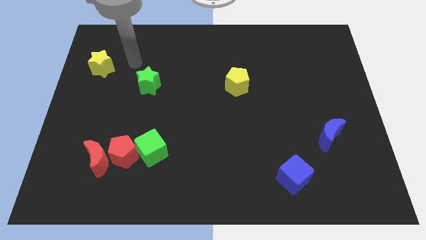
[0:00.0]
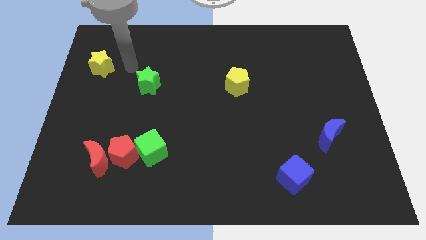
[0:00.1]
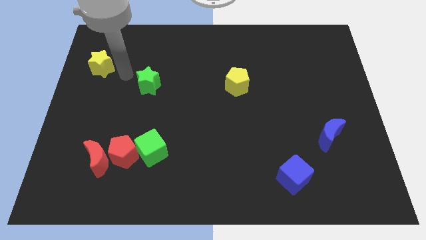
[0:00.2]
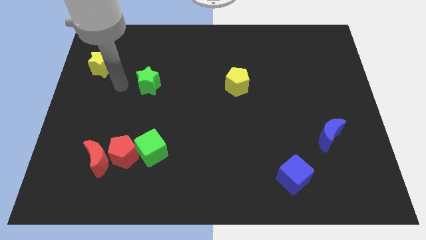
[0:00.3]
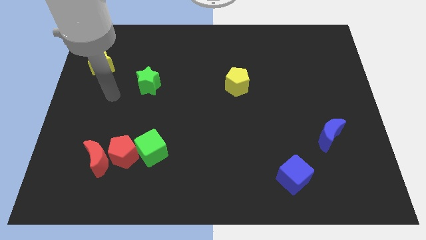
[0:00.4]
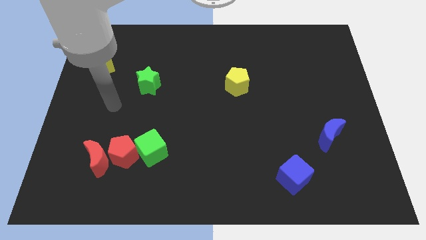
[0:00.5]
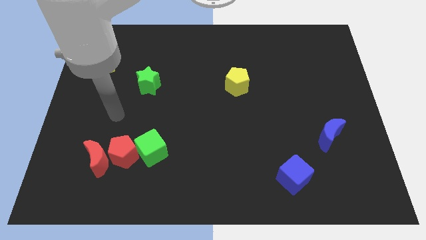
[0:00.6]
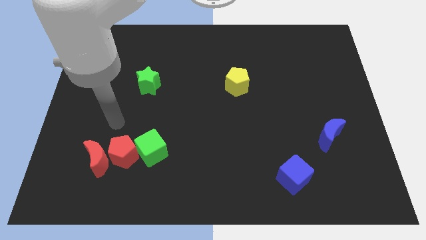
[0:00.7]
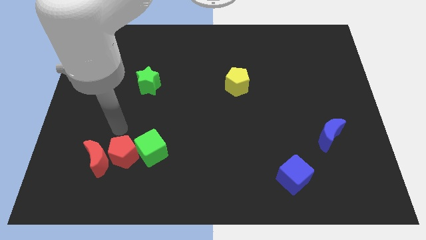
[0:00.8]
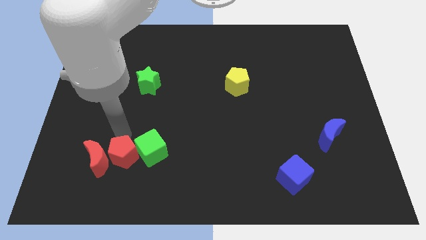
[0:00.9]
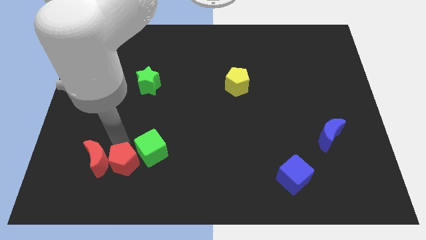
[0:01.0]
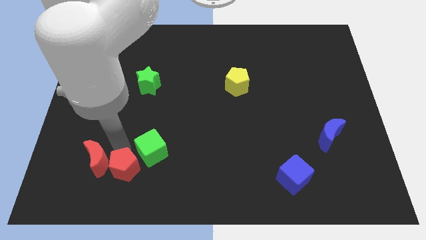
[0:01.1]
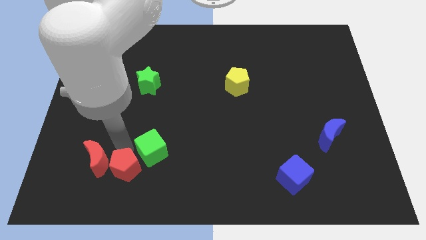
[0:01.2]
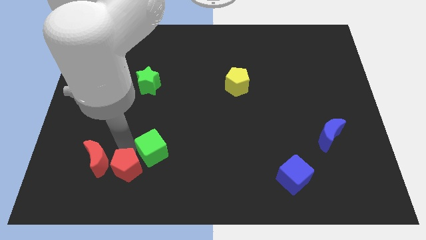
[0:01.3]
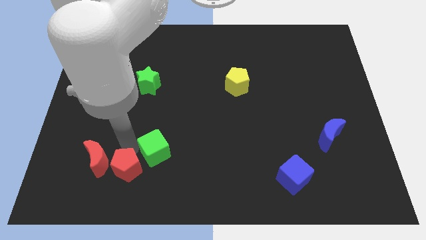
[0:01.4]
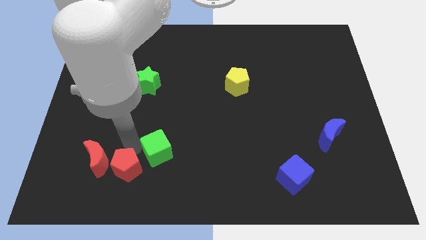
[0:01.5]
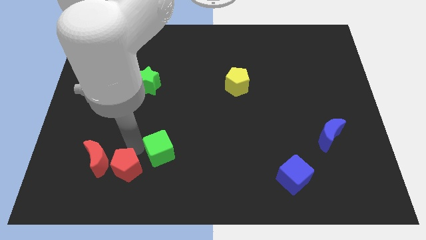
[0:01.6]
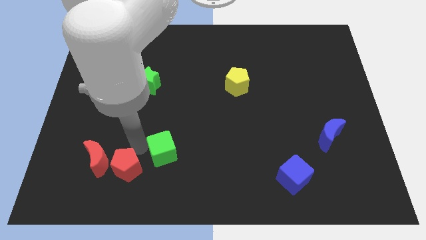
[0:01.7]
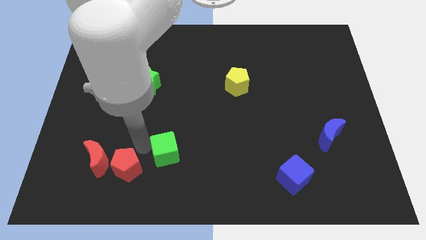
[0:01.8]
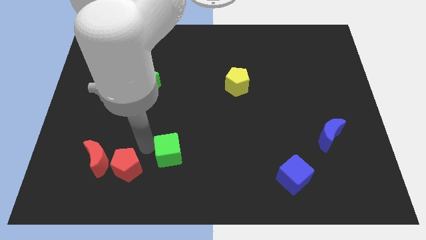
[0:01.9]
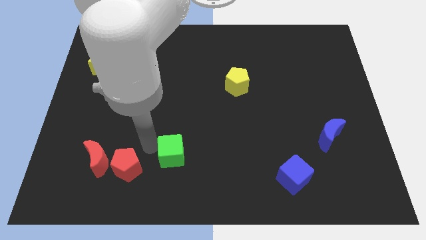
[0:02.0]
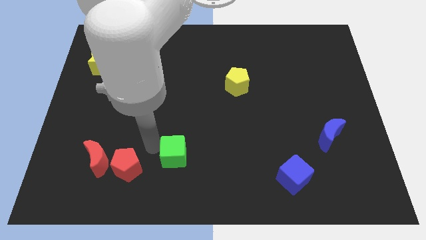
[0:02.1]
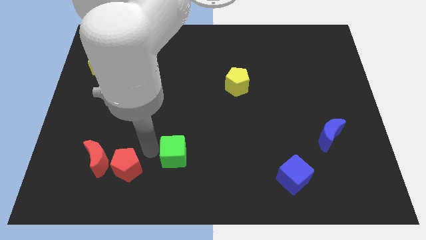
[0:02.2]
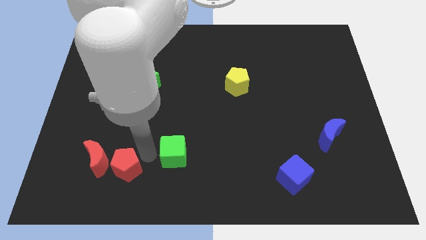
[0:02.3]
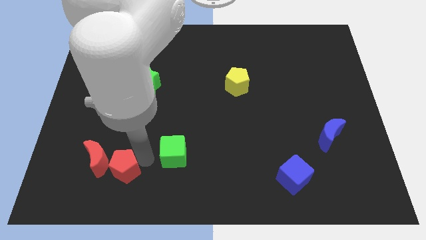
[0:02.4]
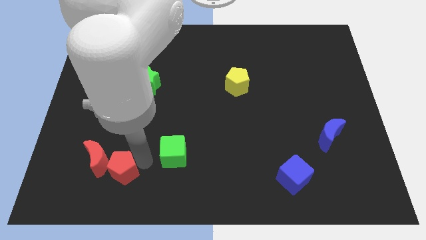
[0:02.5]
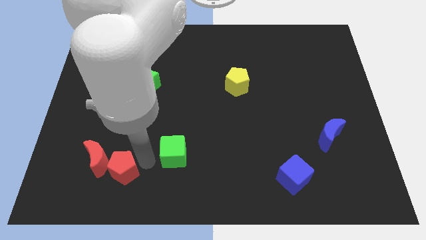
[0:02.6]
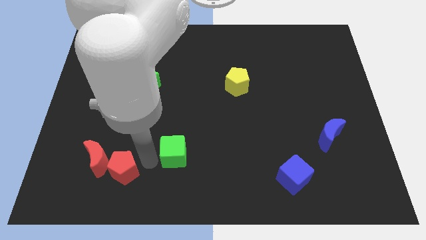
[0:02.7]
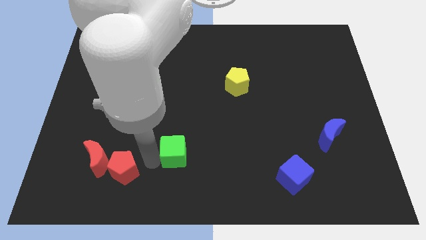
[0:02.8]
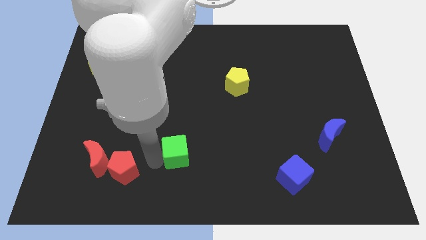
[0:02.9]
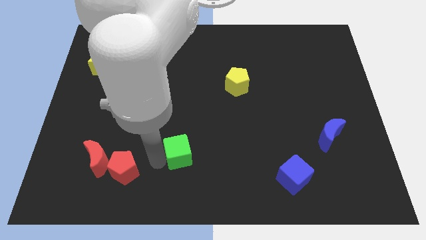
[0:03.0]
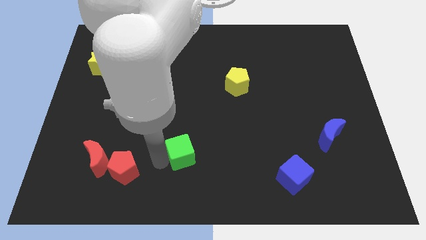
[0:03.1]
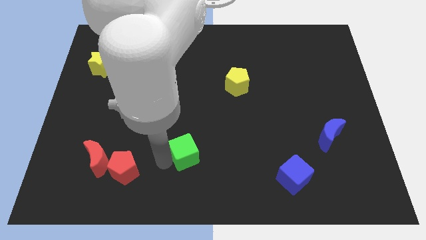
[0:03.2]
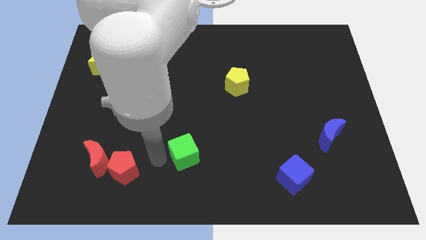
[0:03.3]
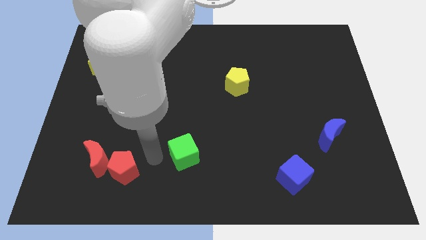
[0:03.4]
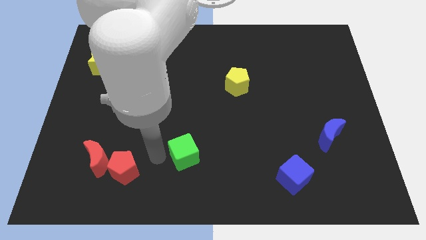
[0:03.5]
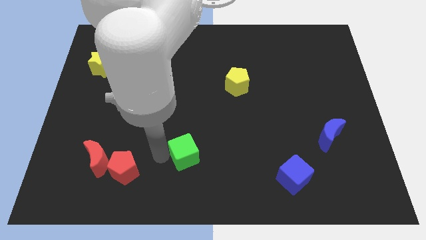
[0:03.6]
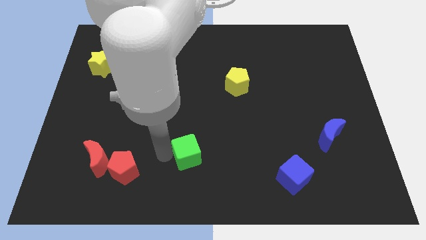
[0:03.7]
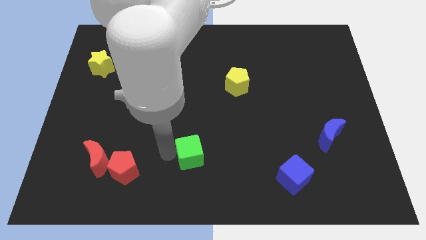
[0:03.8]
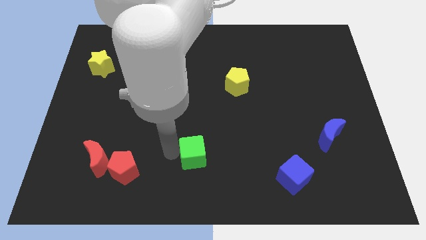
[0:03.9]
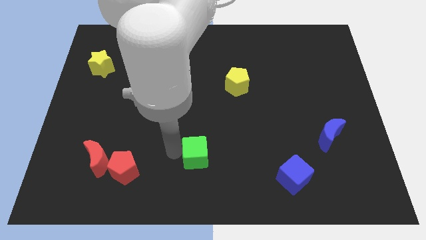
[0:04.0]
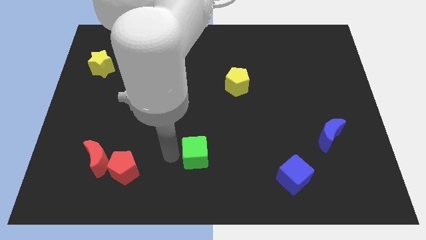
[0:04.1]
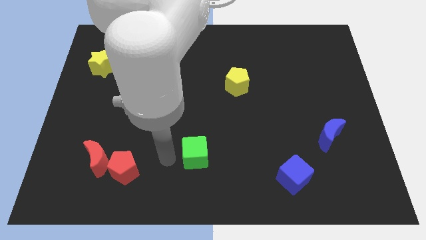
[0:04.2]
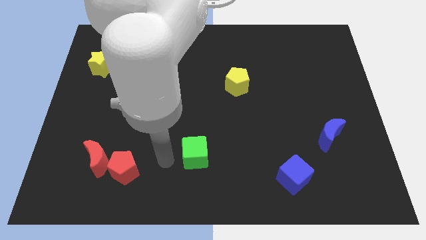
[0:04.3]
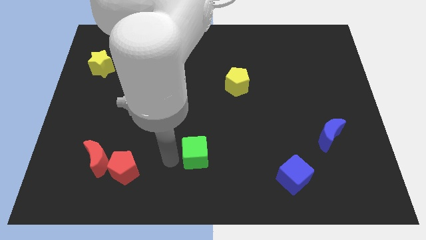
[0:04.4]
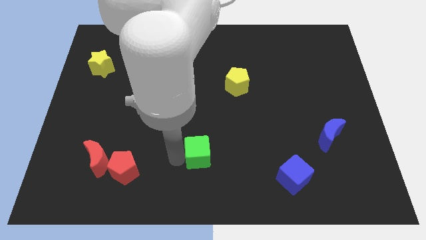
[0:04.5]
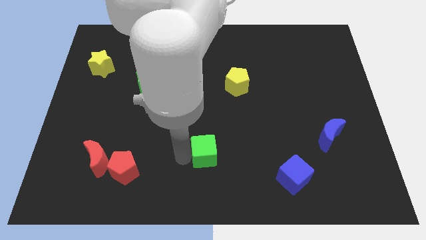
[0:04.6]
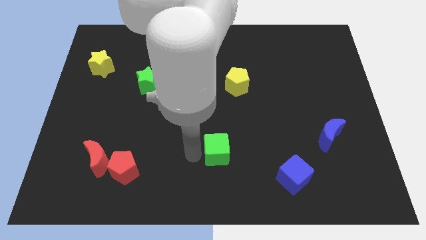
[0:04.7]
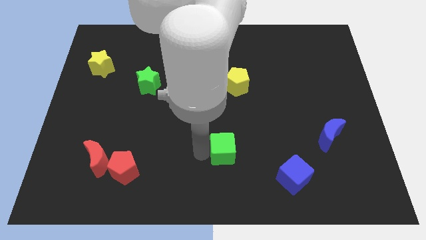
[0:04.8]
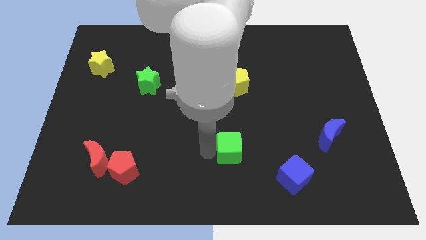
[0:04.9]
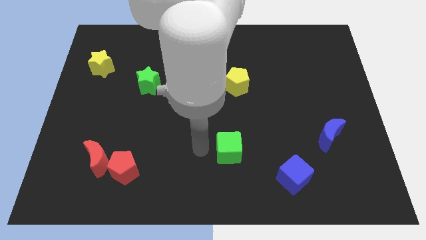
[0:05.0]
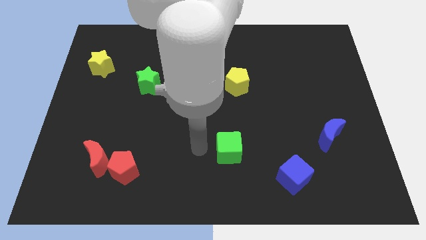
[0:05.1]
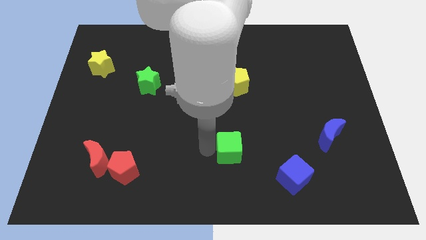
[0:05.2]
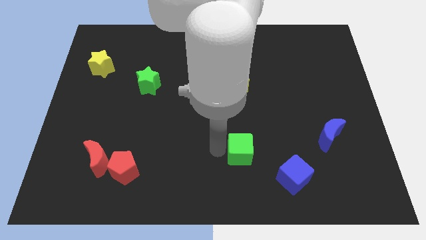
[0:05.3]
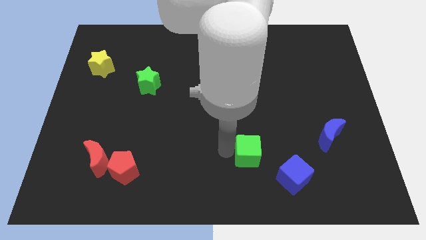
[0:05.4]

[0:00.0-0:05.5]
slide the green cube to the right

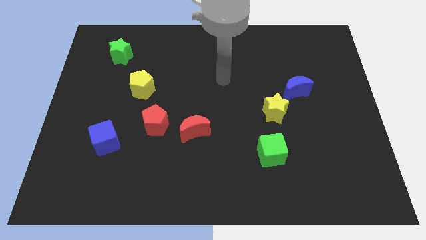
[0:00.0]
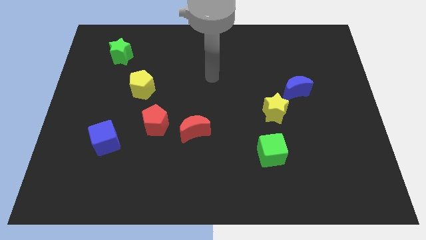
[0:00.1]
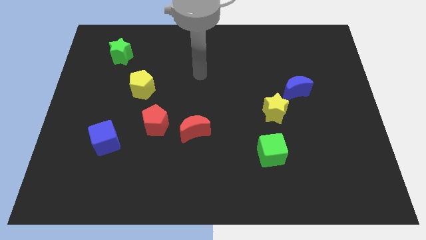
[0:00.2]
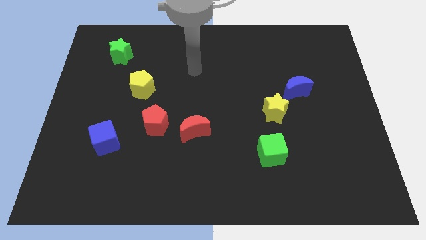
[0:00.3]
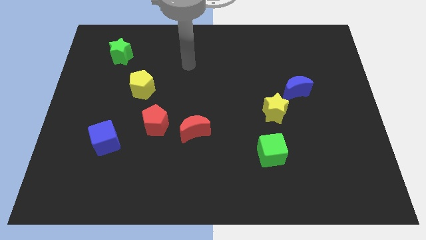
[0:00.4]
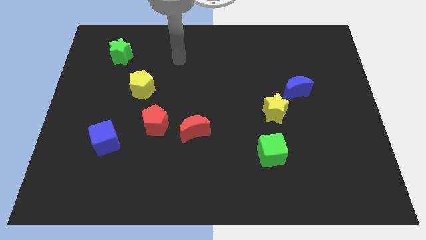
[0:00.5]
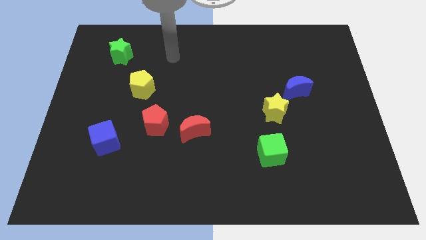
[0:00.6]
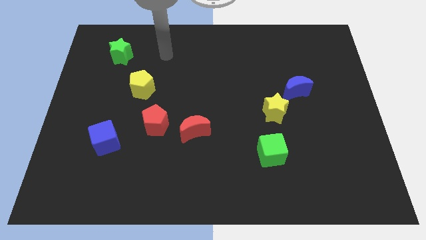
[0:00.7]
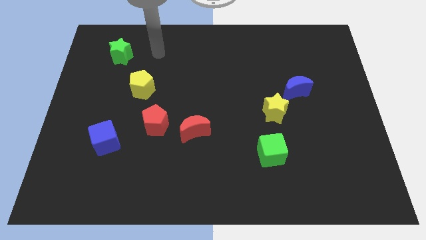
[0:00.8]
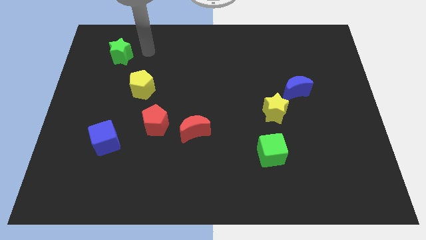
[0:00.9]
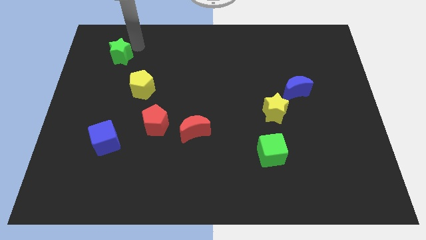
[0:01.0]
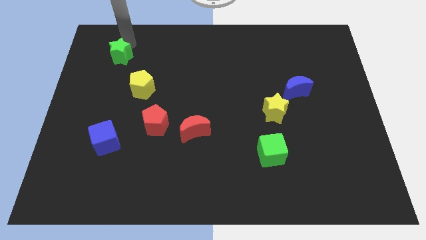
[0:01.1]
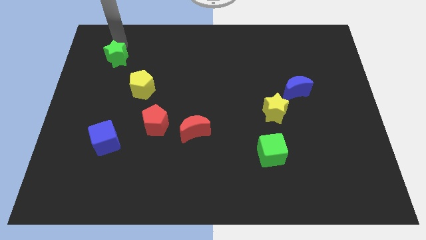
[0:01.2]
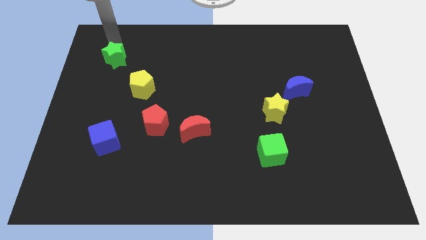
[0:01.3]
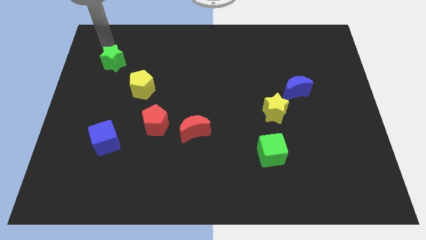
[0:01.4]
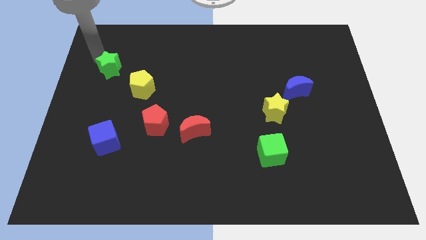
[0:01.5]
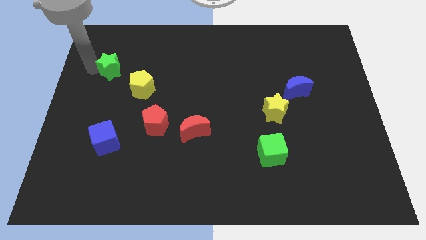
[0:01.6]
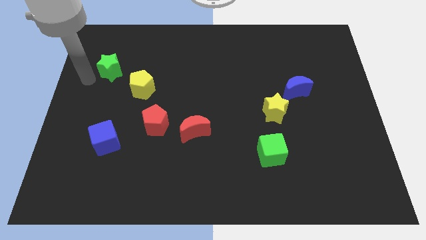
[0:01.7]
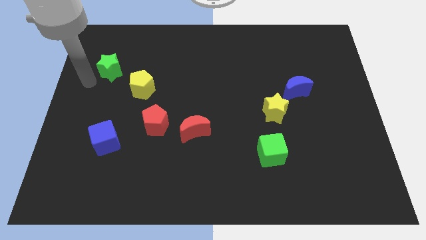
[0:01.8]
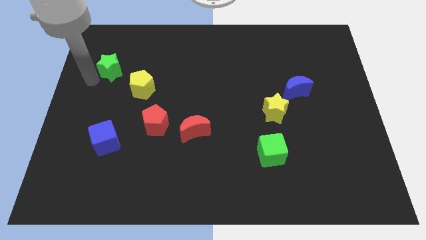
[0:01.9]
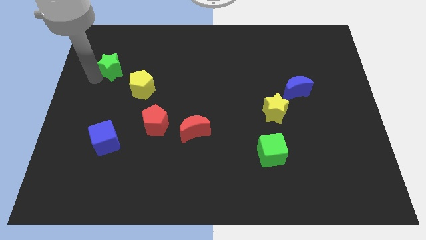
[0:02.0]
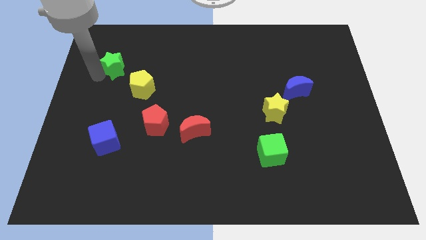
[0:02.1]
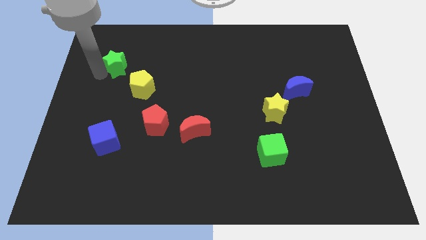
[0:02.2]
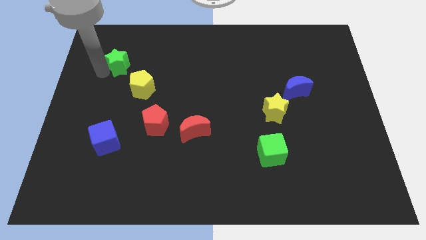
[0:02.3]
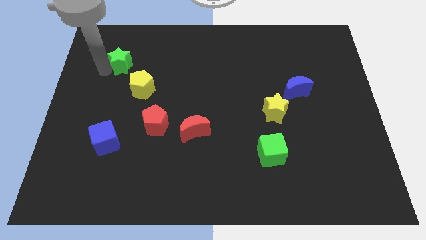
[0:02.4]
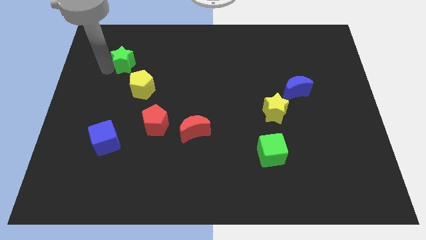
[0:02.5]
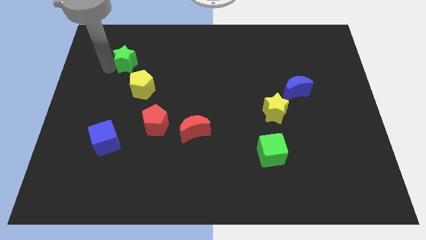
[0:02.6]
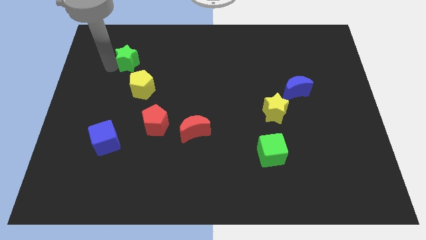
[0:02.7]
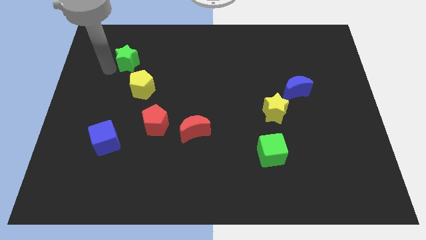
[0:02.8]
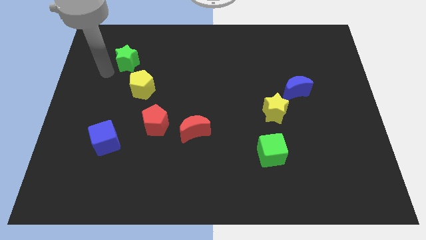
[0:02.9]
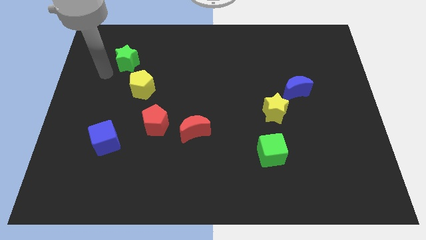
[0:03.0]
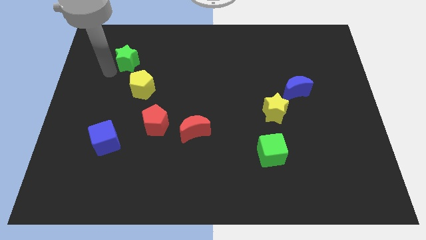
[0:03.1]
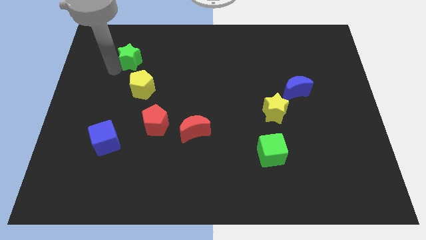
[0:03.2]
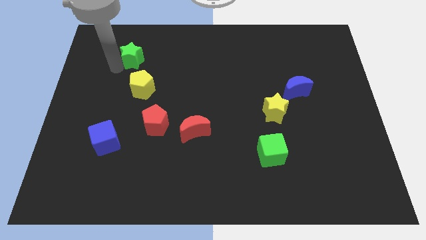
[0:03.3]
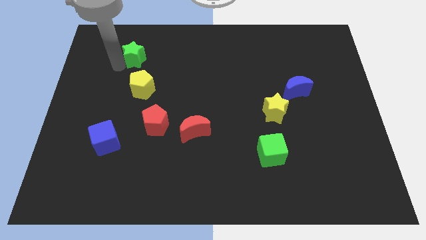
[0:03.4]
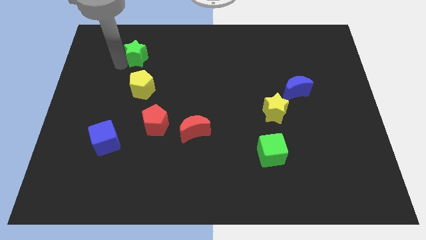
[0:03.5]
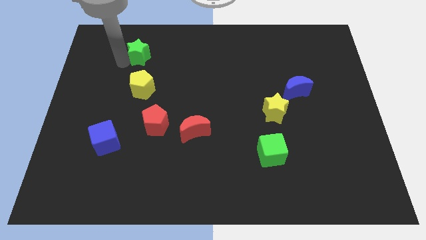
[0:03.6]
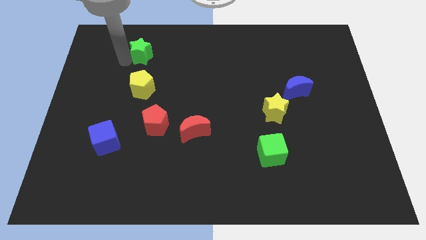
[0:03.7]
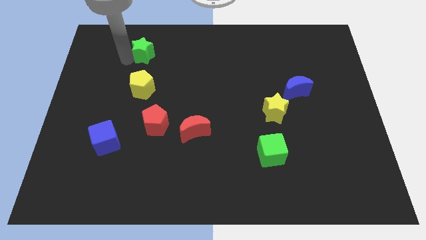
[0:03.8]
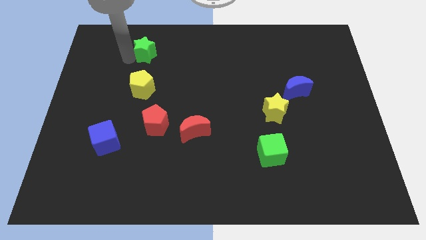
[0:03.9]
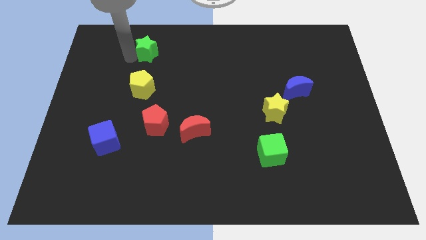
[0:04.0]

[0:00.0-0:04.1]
slightly slide the green star right
